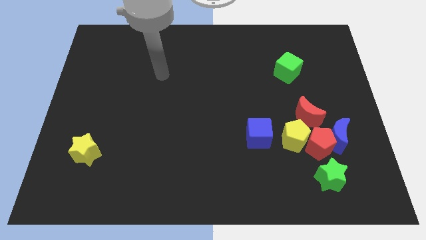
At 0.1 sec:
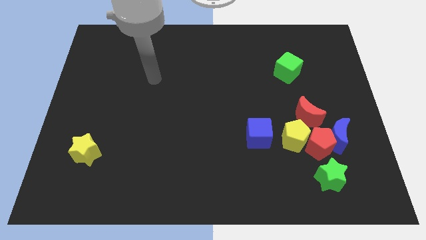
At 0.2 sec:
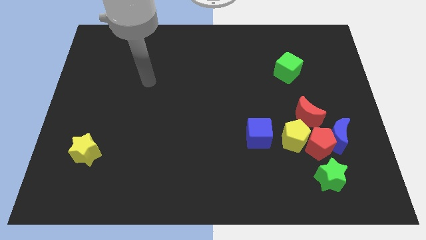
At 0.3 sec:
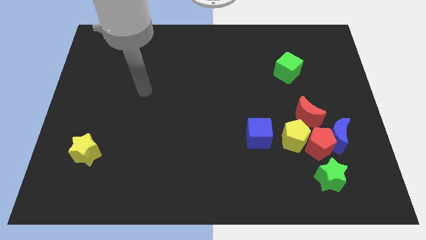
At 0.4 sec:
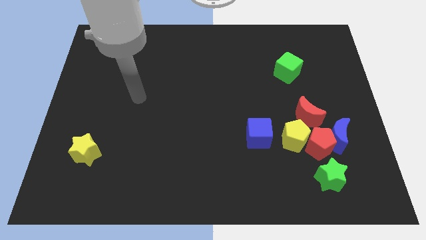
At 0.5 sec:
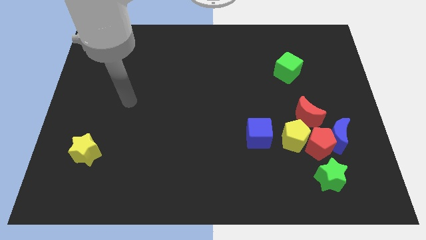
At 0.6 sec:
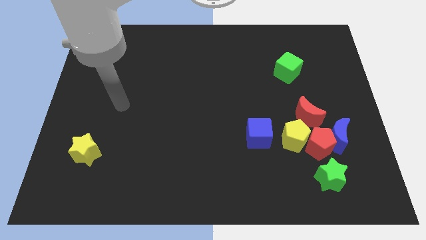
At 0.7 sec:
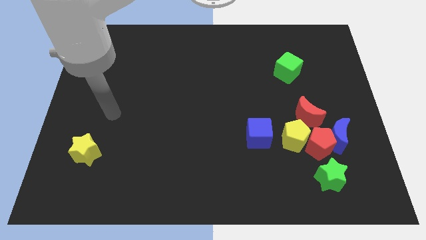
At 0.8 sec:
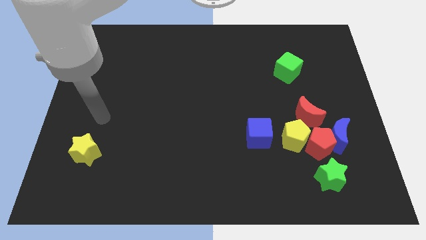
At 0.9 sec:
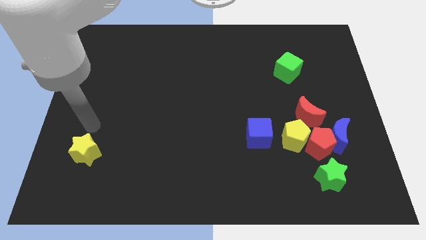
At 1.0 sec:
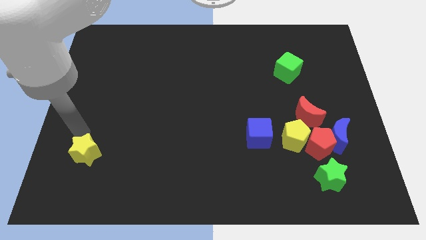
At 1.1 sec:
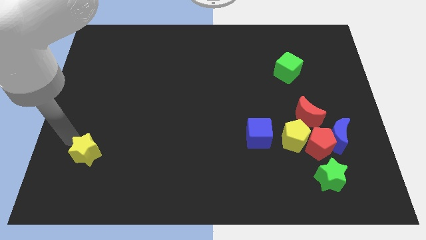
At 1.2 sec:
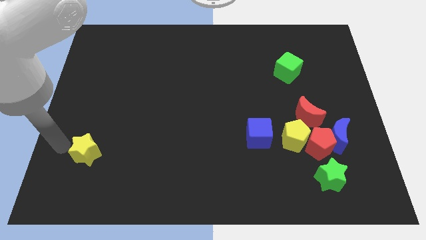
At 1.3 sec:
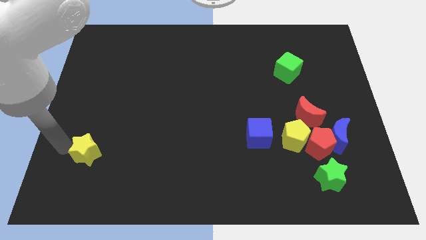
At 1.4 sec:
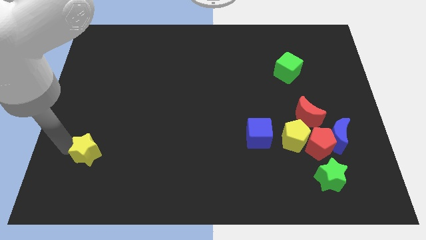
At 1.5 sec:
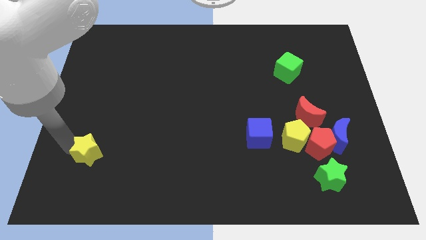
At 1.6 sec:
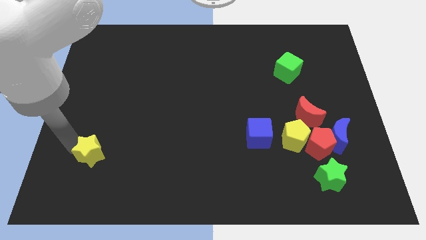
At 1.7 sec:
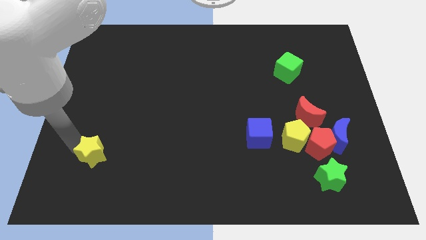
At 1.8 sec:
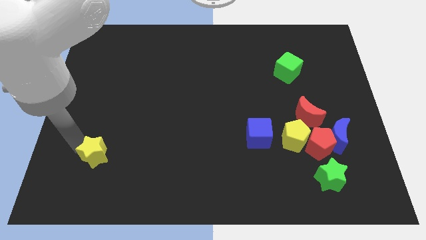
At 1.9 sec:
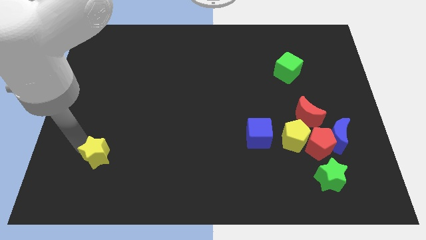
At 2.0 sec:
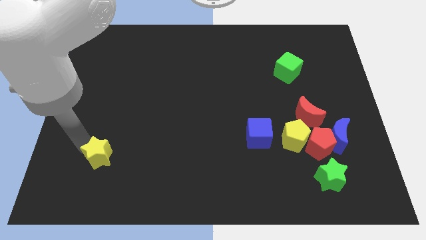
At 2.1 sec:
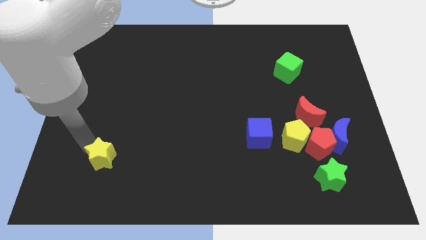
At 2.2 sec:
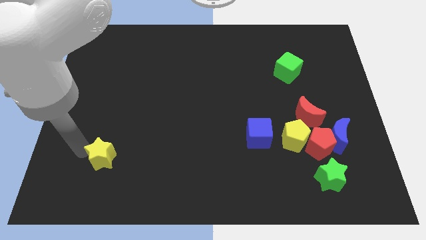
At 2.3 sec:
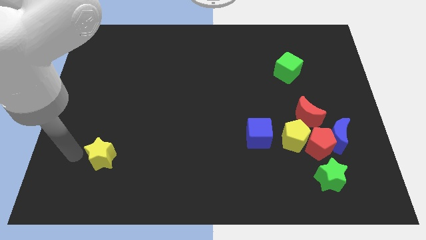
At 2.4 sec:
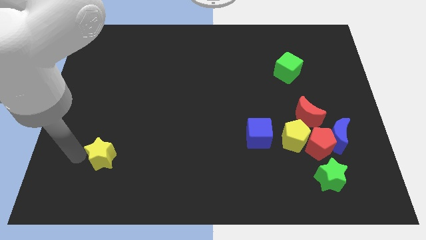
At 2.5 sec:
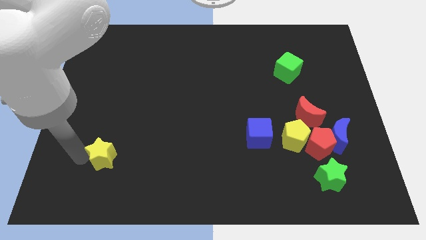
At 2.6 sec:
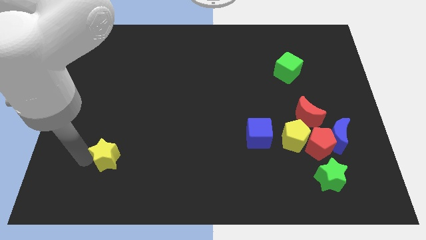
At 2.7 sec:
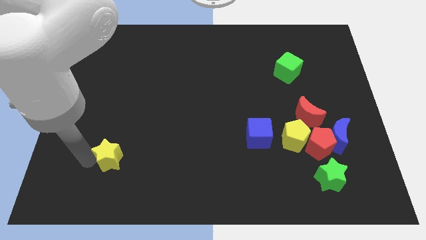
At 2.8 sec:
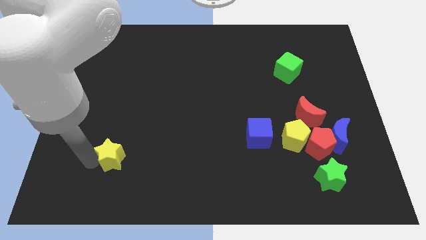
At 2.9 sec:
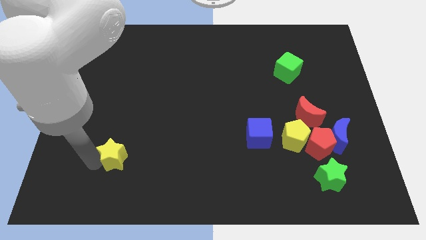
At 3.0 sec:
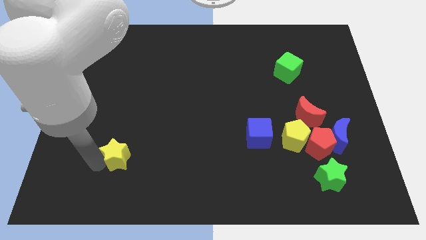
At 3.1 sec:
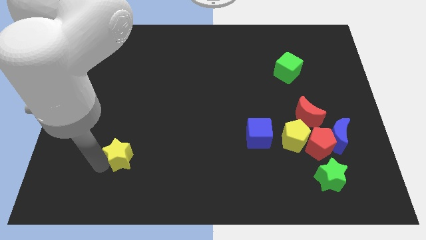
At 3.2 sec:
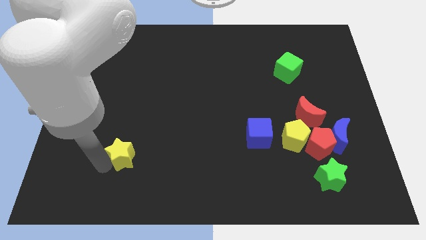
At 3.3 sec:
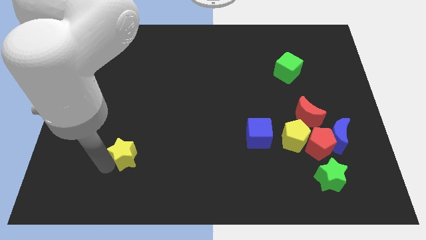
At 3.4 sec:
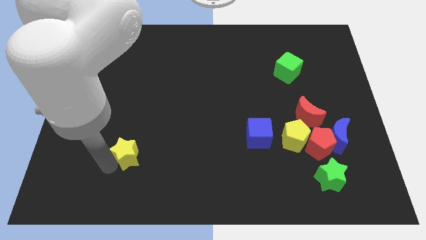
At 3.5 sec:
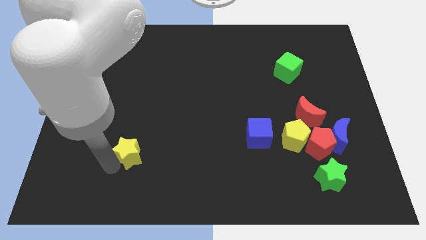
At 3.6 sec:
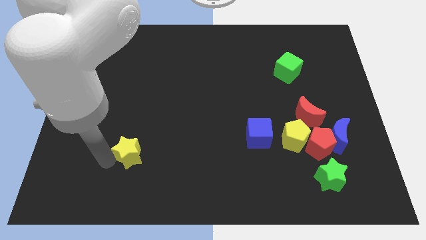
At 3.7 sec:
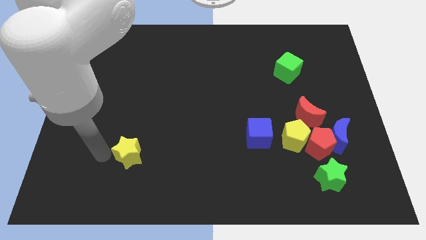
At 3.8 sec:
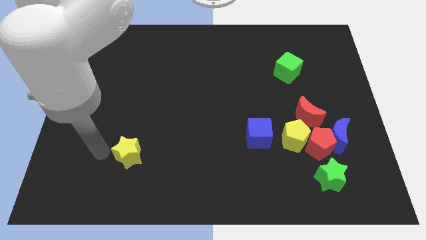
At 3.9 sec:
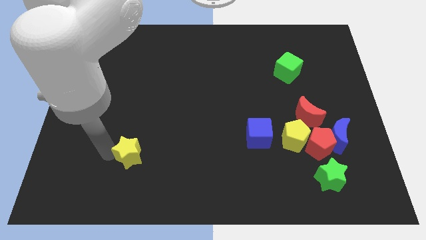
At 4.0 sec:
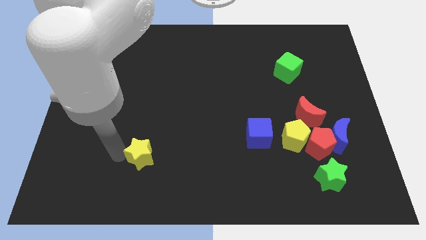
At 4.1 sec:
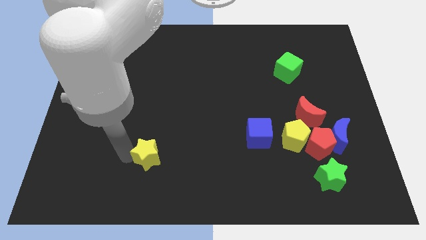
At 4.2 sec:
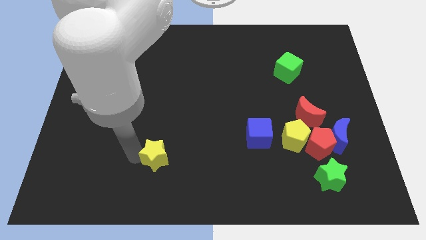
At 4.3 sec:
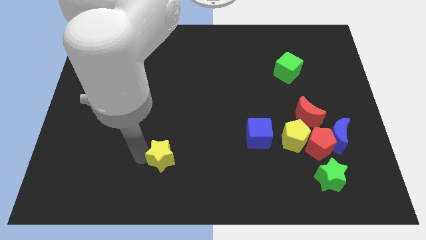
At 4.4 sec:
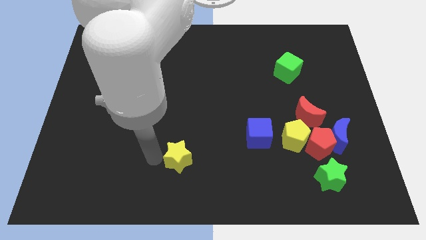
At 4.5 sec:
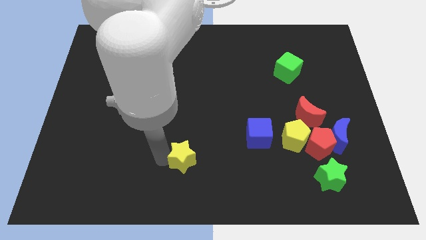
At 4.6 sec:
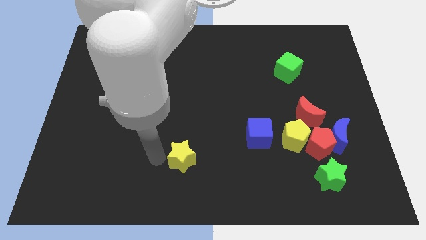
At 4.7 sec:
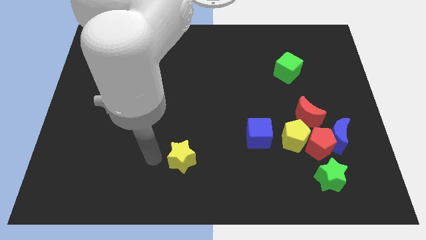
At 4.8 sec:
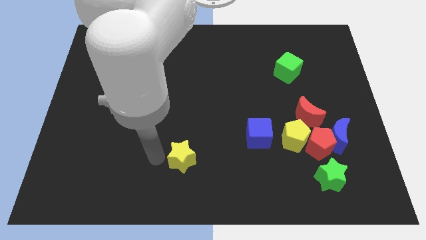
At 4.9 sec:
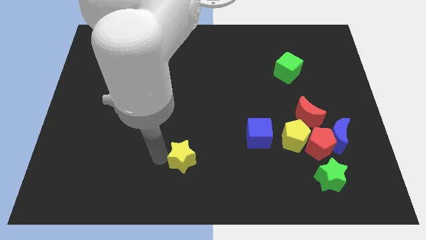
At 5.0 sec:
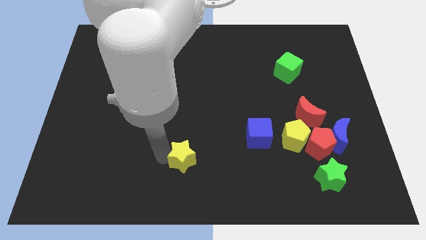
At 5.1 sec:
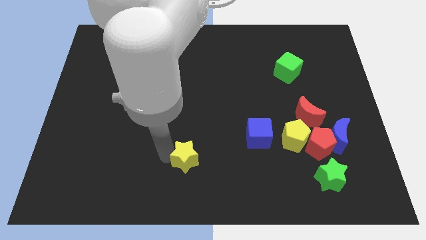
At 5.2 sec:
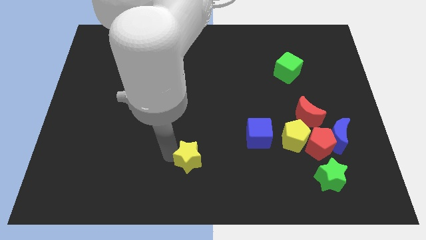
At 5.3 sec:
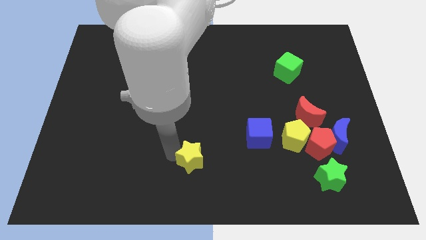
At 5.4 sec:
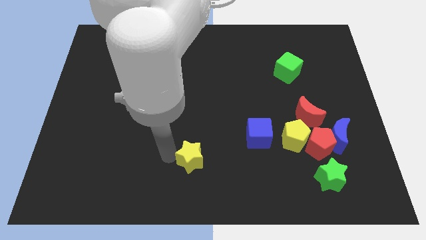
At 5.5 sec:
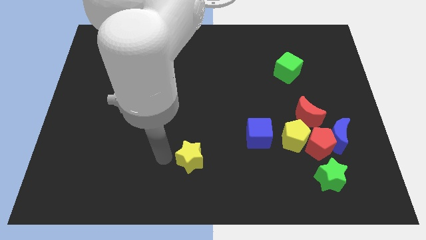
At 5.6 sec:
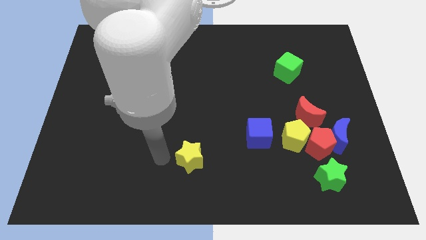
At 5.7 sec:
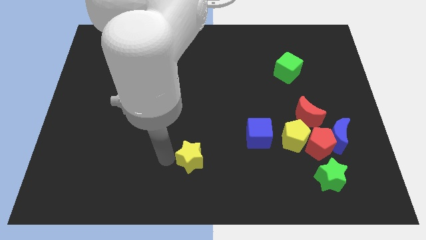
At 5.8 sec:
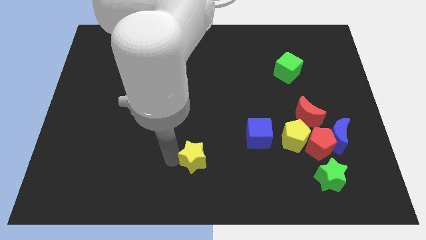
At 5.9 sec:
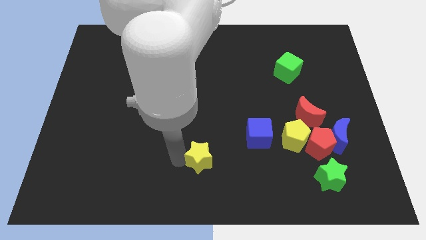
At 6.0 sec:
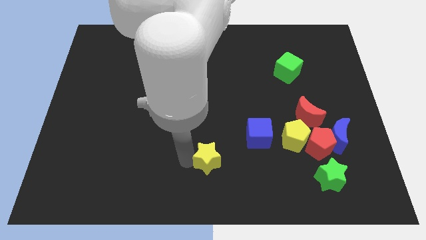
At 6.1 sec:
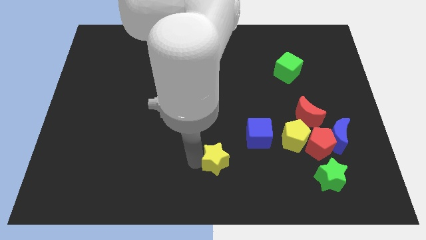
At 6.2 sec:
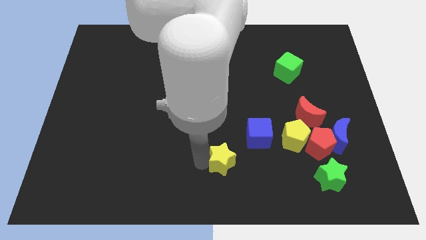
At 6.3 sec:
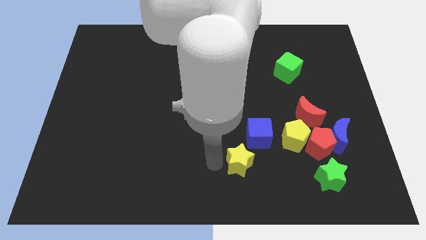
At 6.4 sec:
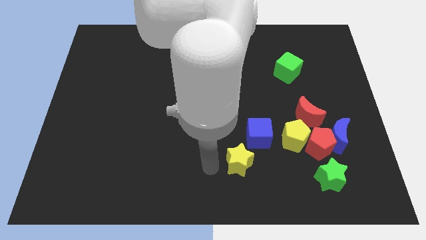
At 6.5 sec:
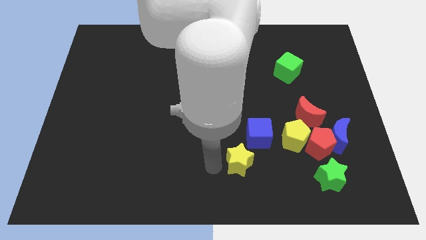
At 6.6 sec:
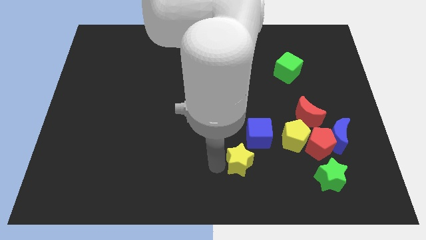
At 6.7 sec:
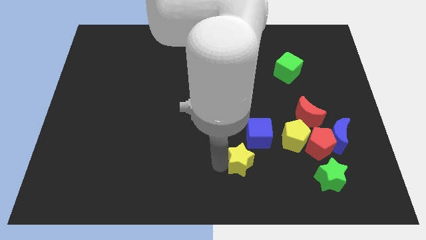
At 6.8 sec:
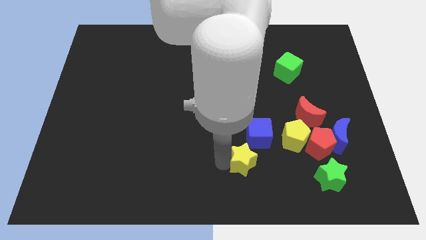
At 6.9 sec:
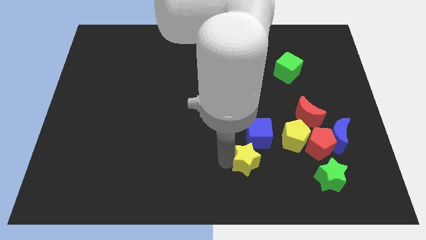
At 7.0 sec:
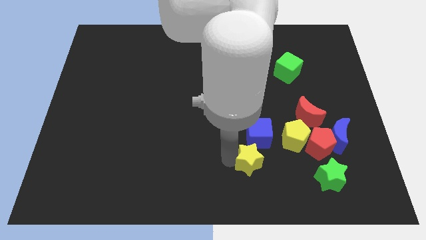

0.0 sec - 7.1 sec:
put the yellow star to the bottom left of the yellow pentagon
